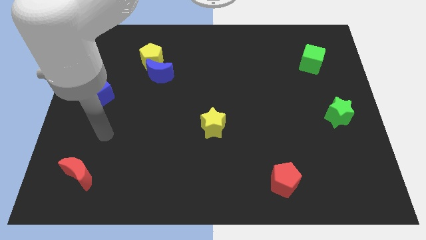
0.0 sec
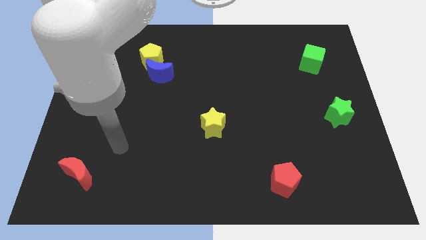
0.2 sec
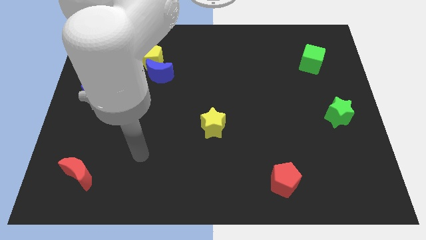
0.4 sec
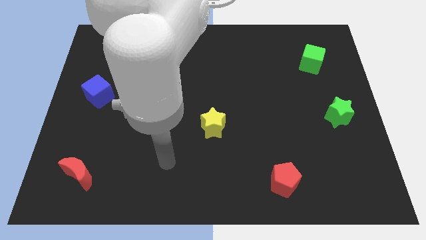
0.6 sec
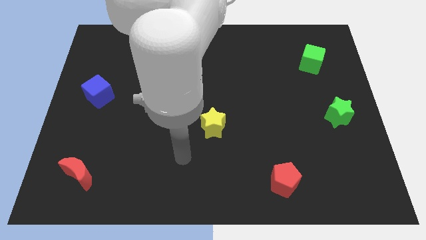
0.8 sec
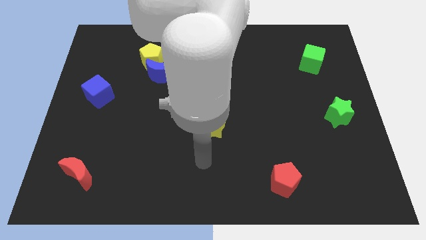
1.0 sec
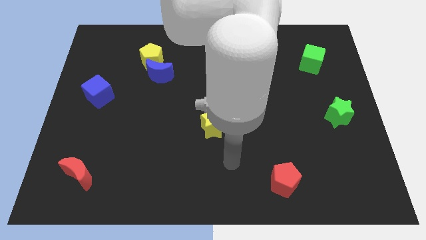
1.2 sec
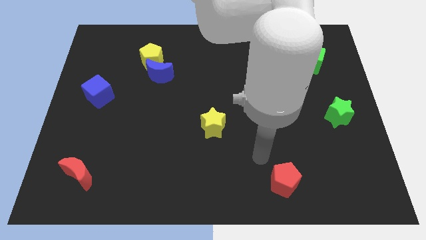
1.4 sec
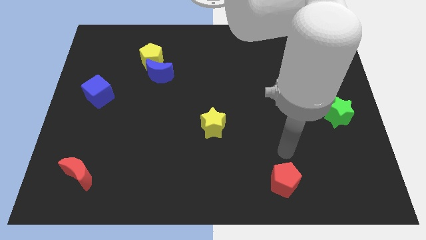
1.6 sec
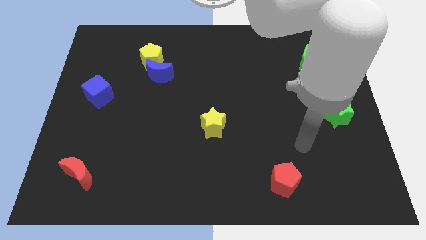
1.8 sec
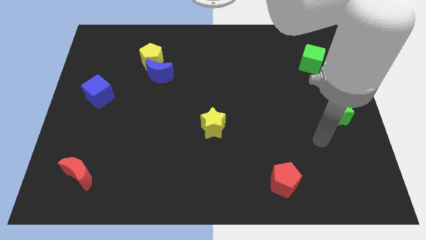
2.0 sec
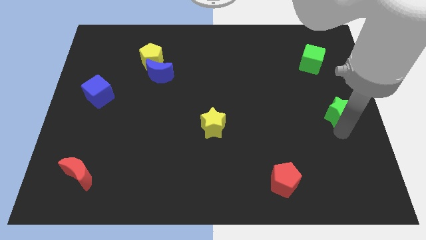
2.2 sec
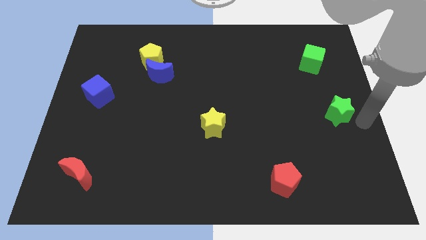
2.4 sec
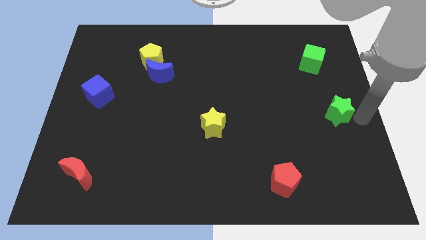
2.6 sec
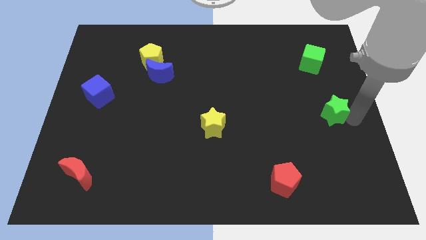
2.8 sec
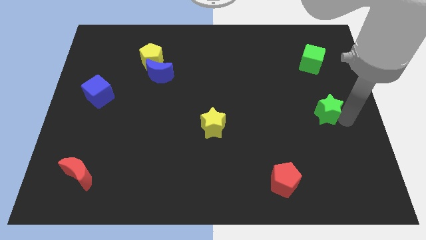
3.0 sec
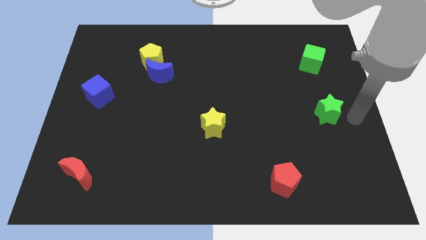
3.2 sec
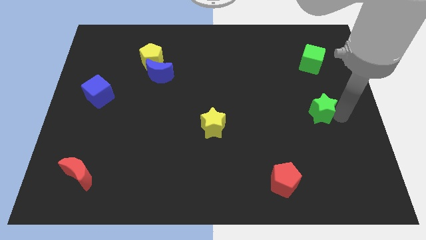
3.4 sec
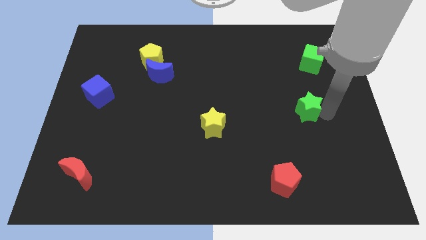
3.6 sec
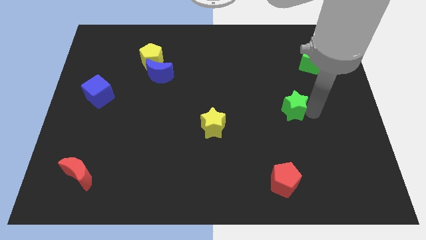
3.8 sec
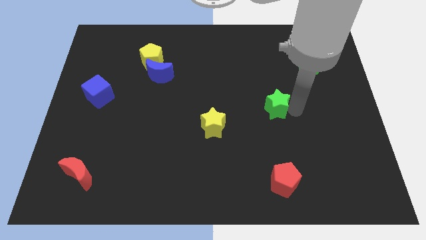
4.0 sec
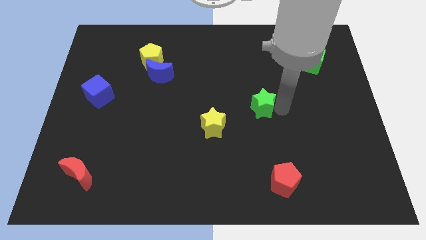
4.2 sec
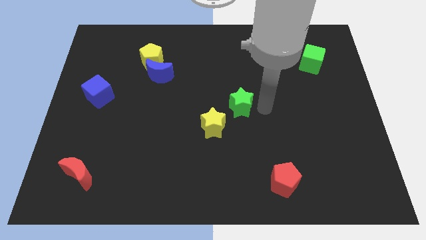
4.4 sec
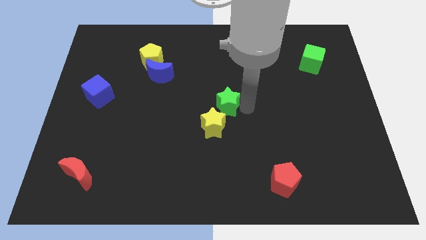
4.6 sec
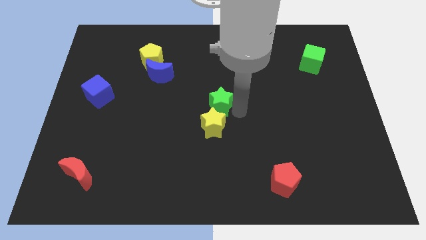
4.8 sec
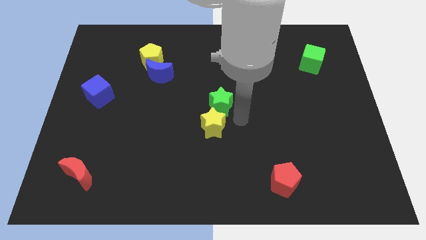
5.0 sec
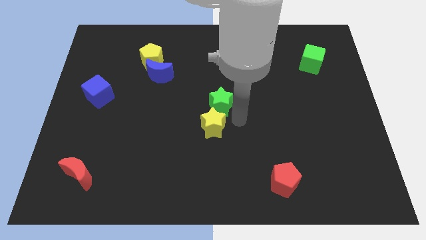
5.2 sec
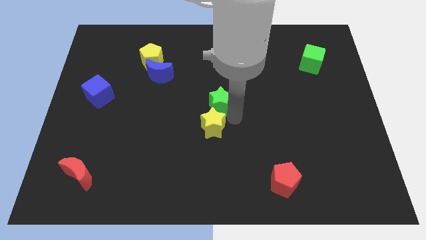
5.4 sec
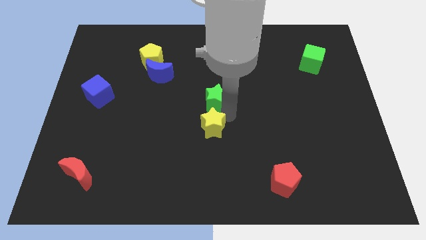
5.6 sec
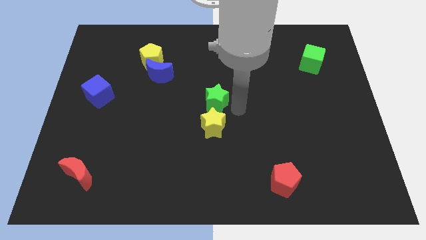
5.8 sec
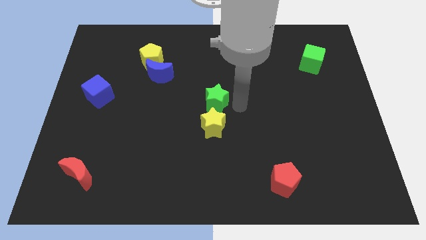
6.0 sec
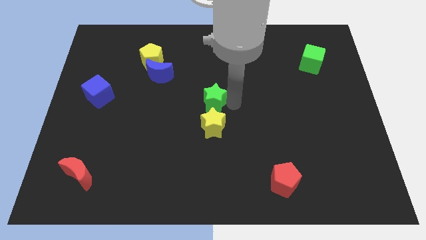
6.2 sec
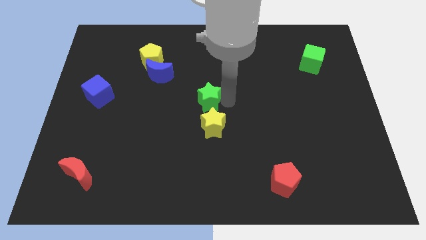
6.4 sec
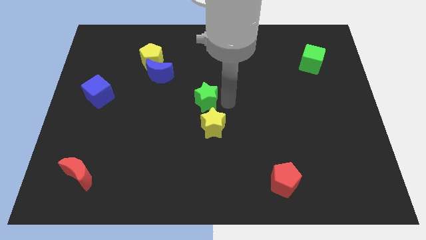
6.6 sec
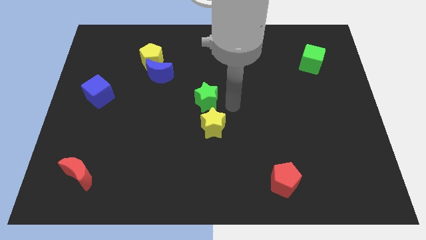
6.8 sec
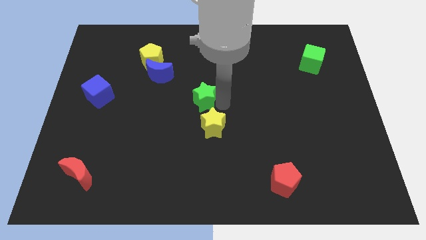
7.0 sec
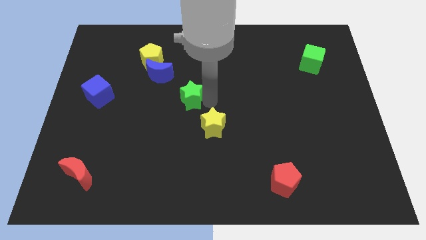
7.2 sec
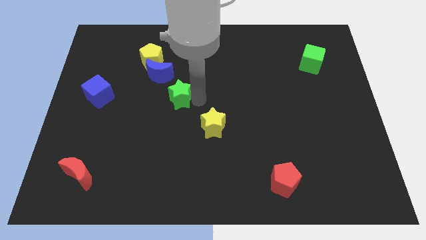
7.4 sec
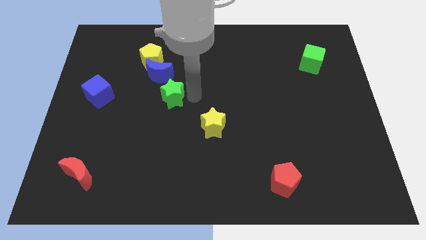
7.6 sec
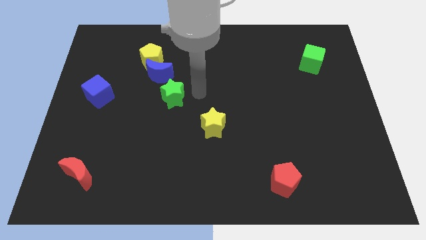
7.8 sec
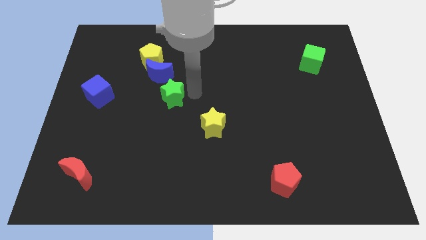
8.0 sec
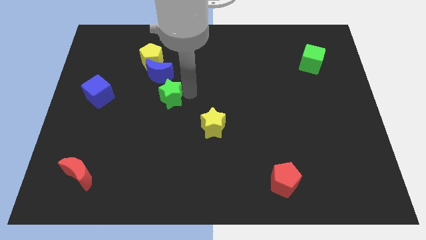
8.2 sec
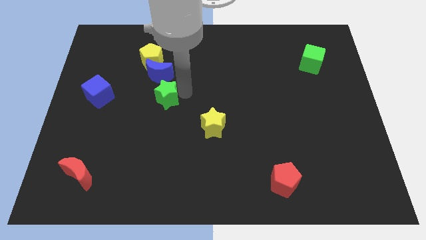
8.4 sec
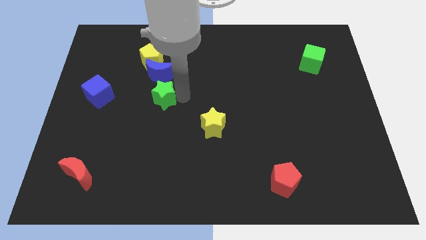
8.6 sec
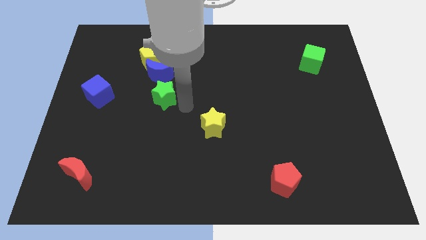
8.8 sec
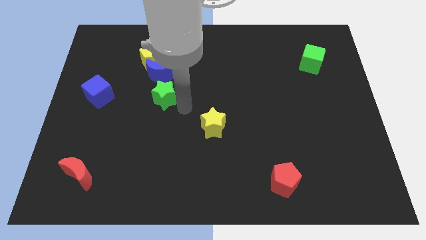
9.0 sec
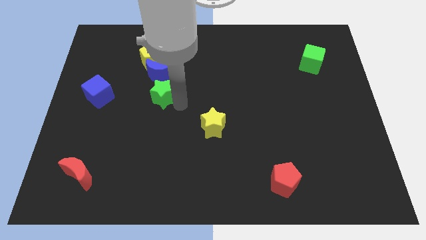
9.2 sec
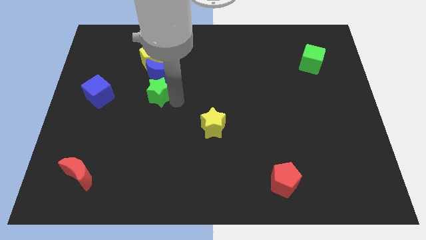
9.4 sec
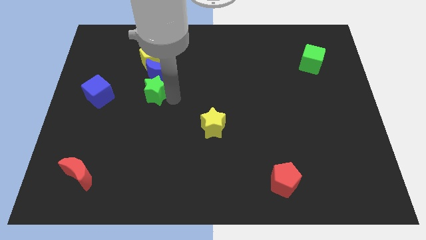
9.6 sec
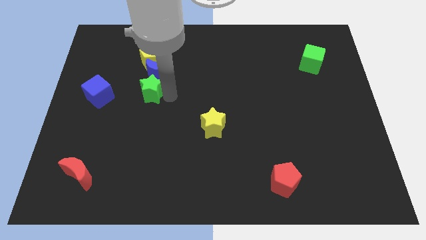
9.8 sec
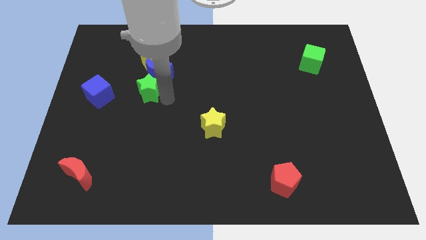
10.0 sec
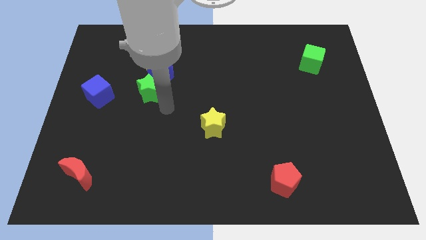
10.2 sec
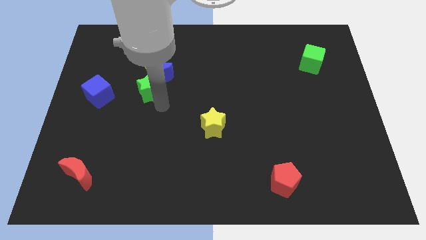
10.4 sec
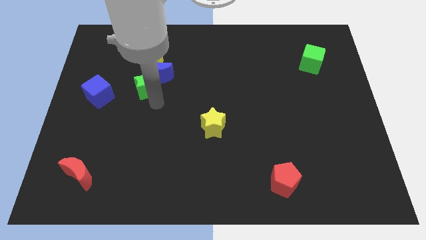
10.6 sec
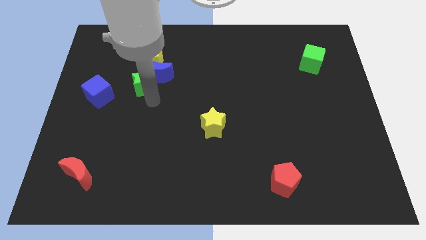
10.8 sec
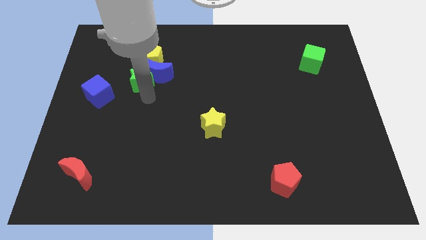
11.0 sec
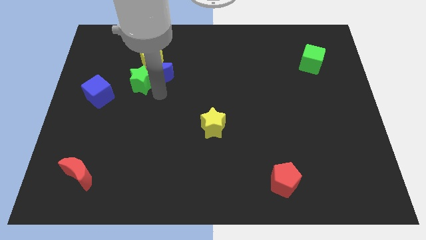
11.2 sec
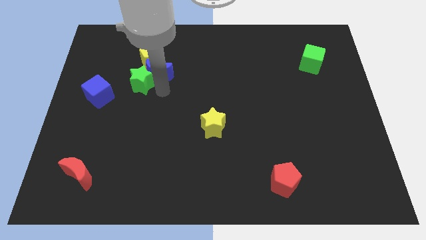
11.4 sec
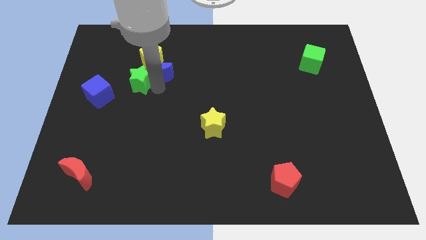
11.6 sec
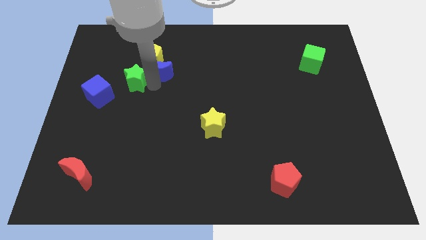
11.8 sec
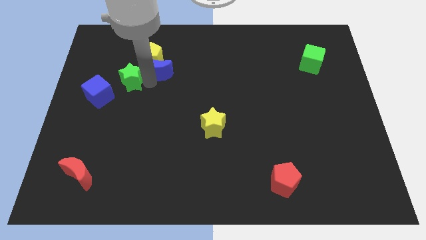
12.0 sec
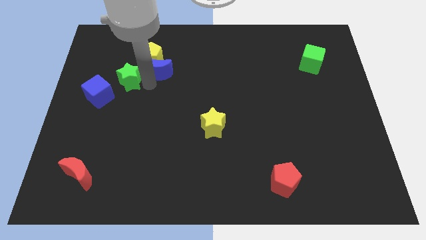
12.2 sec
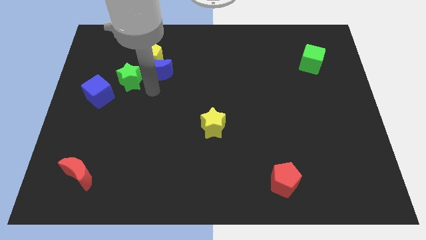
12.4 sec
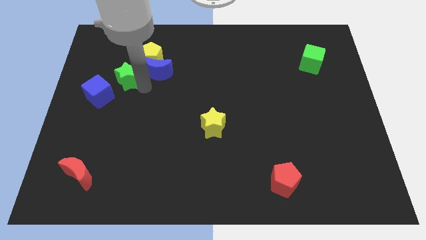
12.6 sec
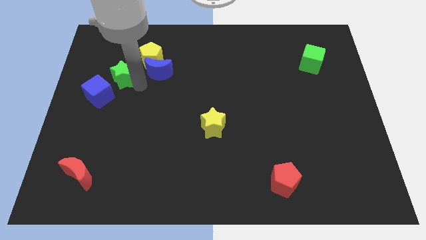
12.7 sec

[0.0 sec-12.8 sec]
put the green star above the blue cube

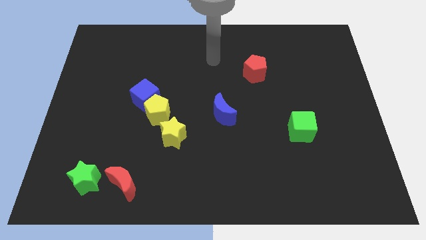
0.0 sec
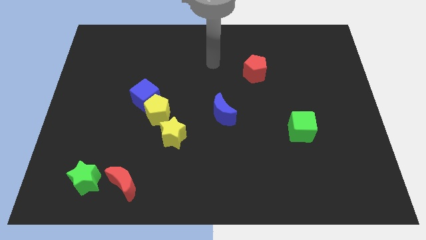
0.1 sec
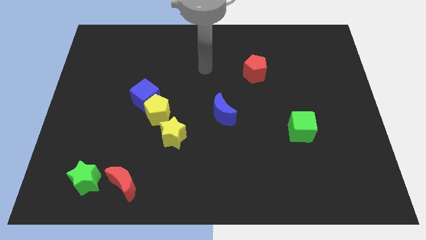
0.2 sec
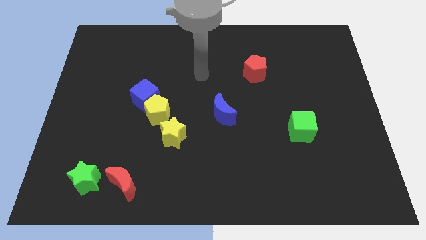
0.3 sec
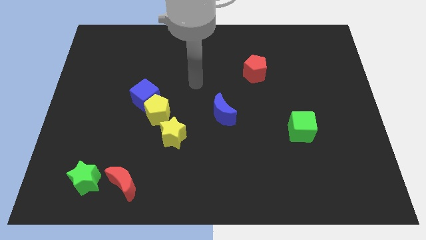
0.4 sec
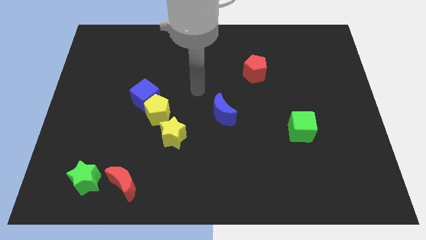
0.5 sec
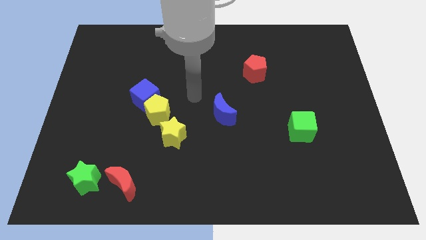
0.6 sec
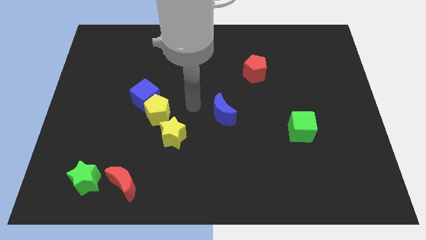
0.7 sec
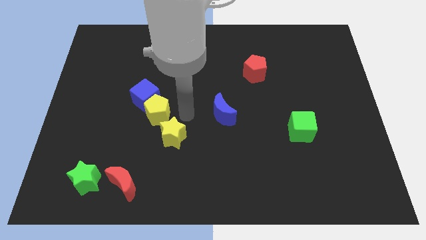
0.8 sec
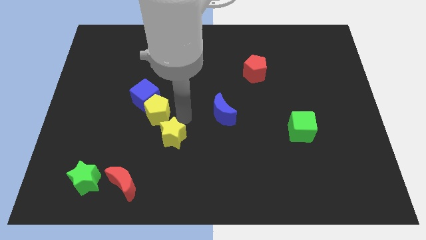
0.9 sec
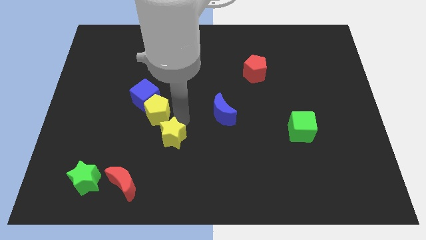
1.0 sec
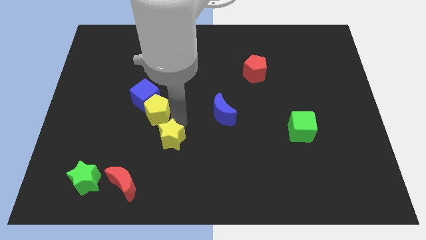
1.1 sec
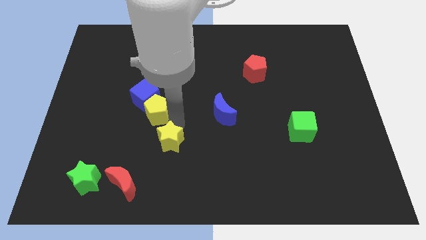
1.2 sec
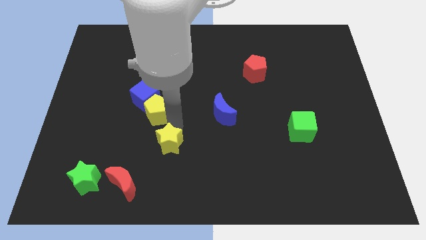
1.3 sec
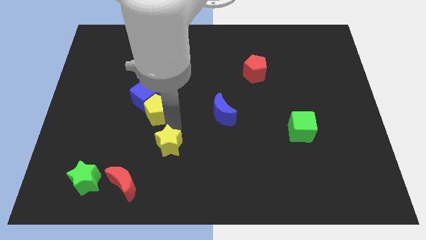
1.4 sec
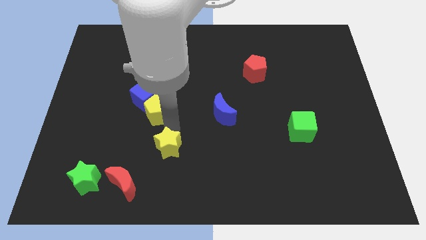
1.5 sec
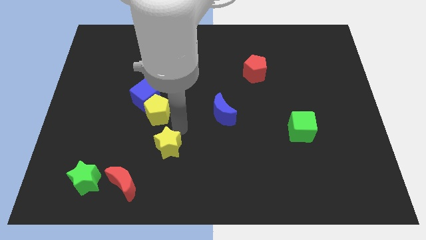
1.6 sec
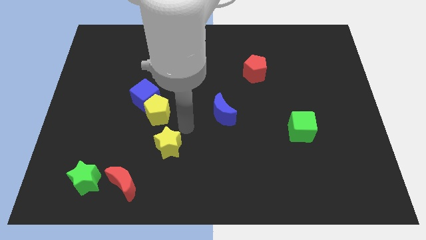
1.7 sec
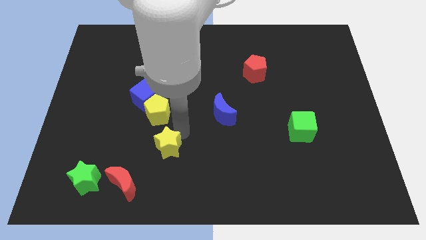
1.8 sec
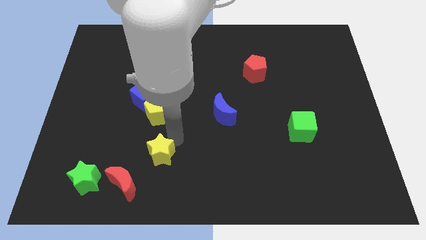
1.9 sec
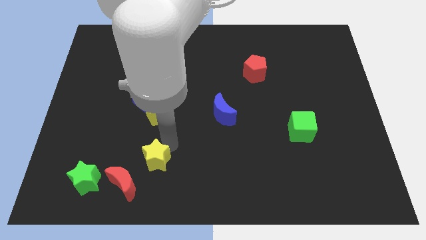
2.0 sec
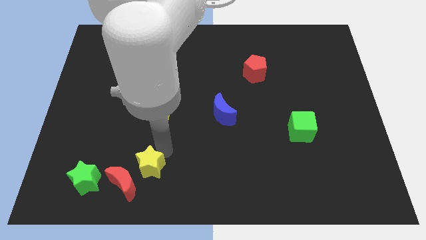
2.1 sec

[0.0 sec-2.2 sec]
put the yellow star just right of the green star
